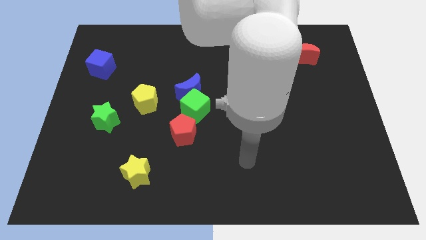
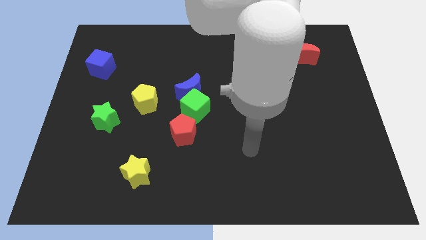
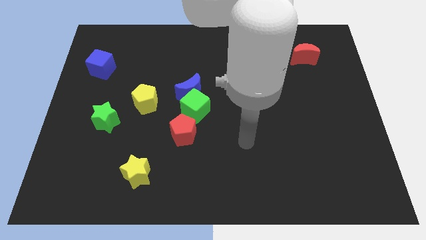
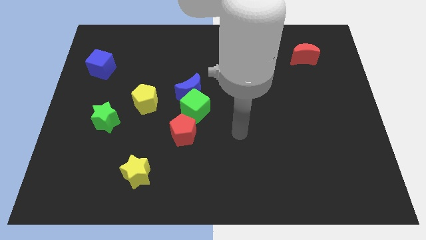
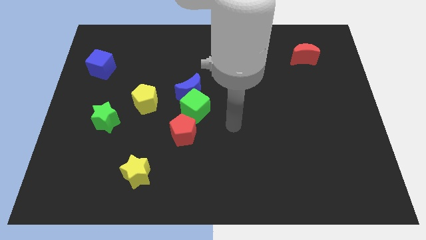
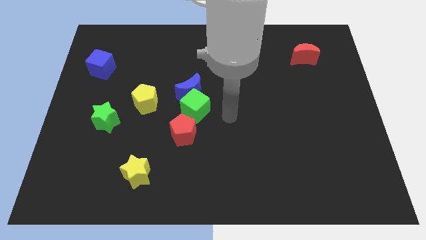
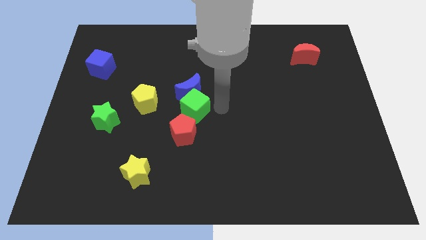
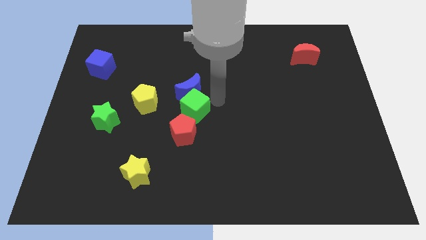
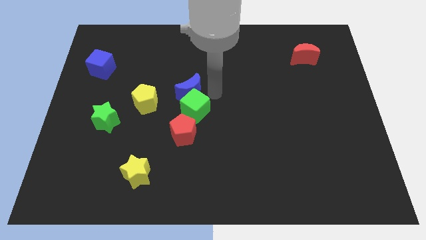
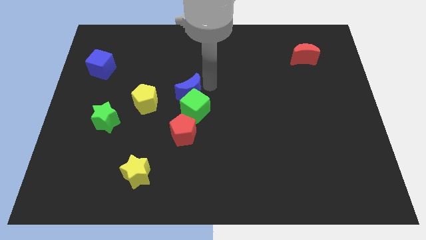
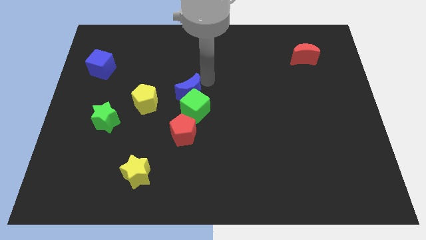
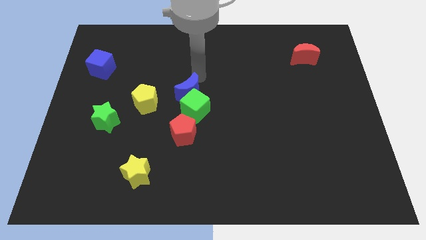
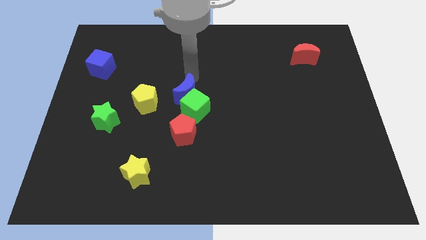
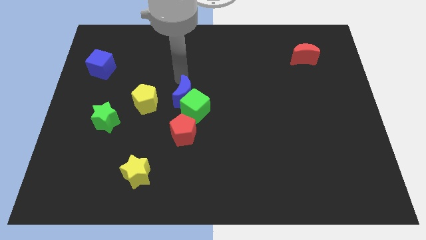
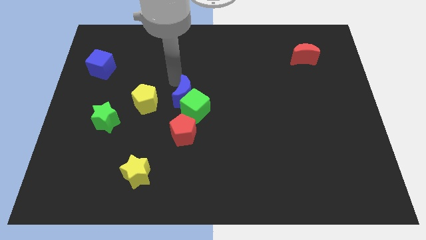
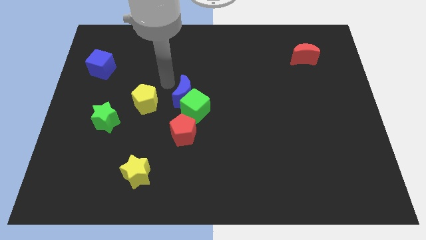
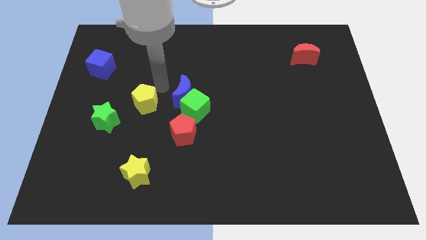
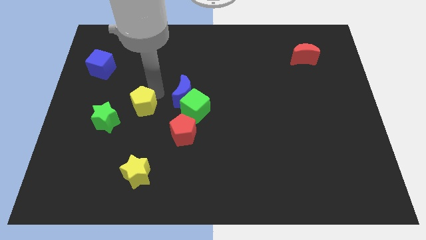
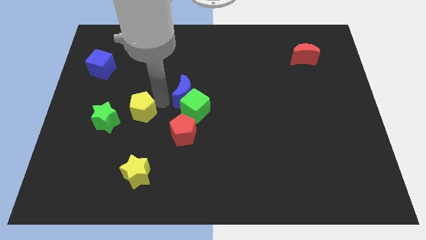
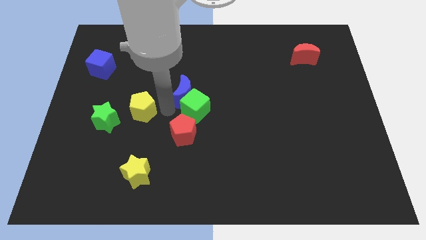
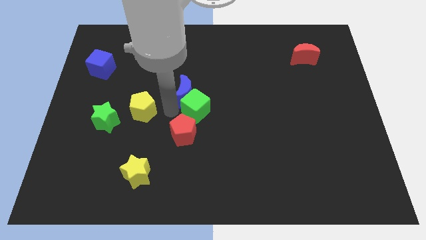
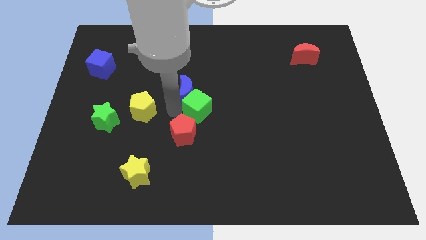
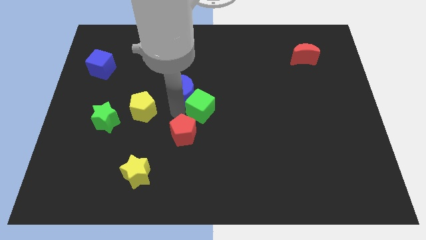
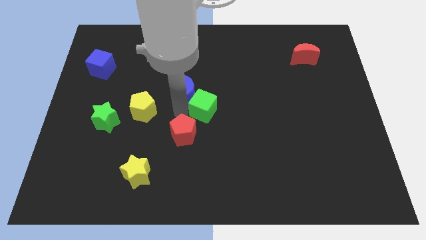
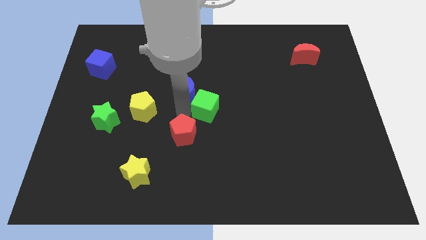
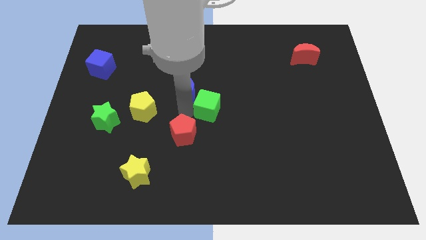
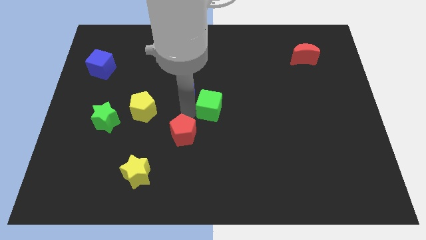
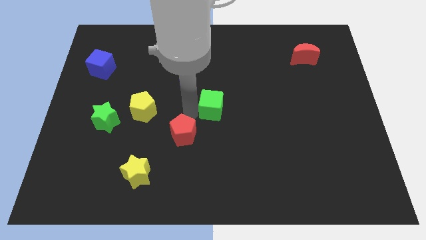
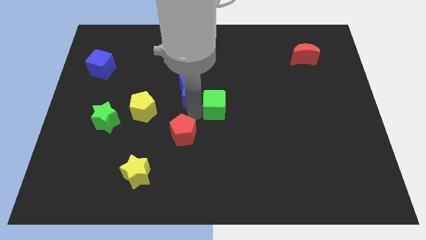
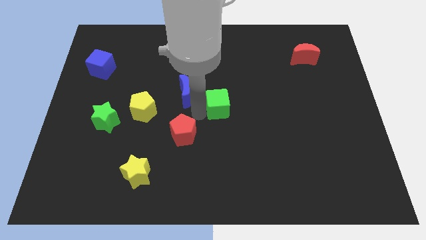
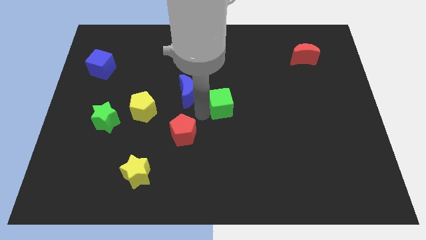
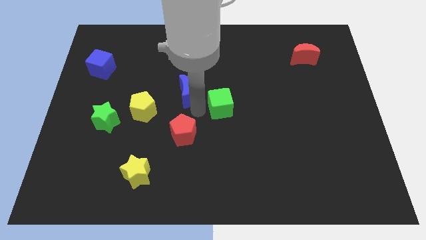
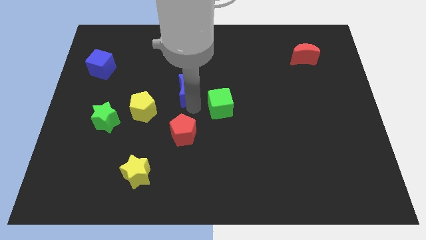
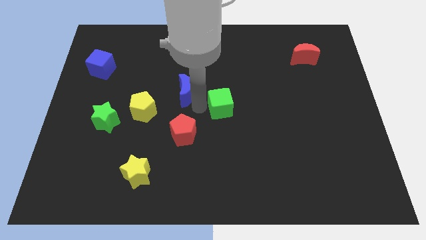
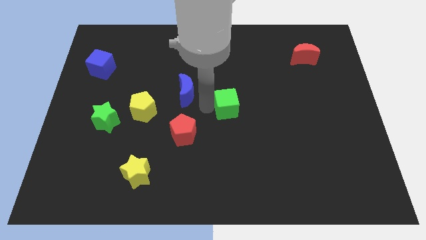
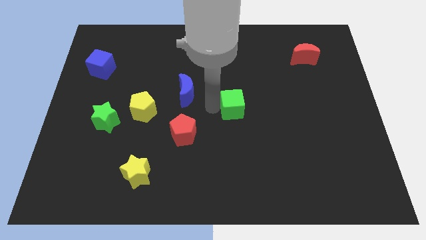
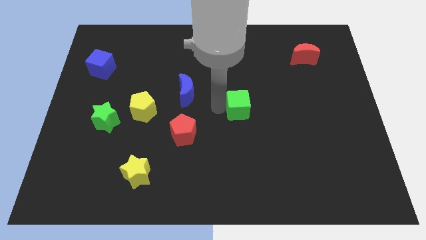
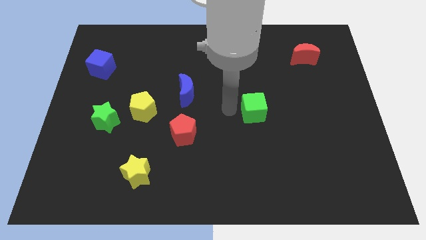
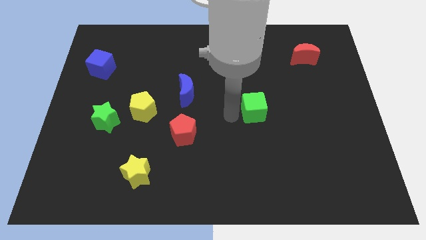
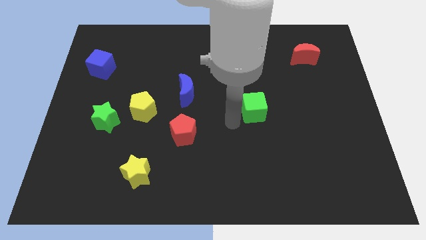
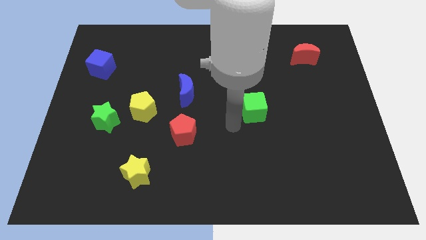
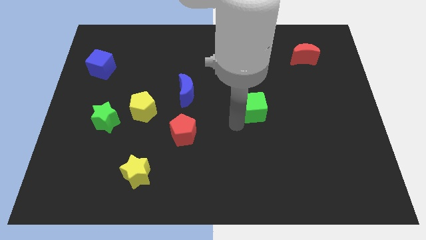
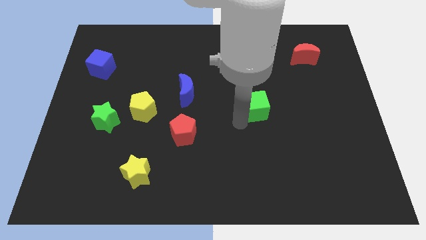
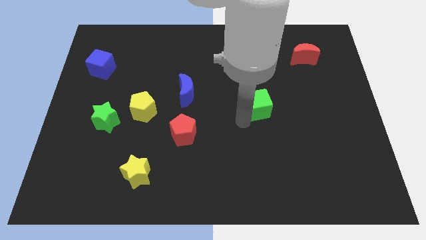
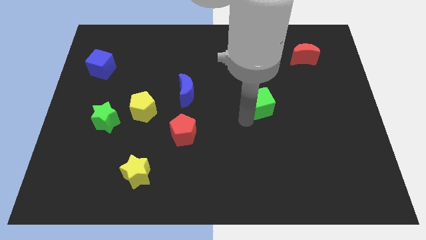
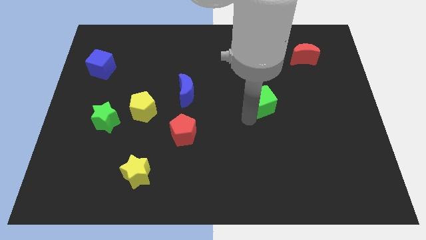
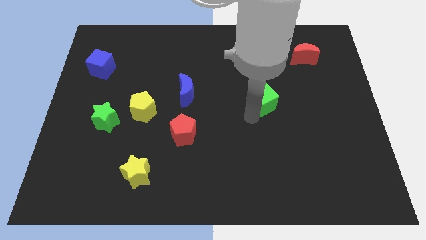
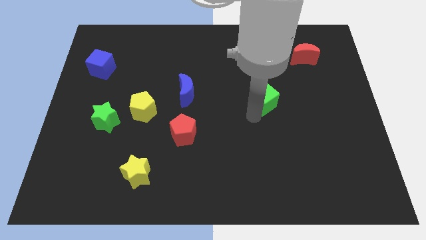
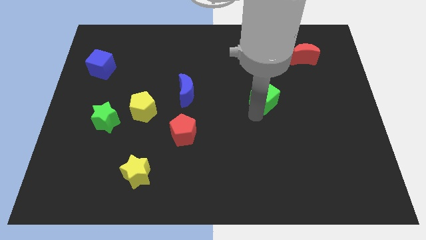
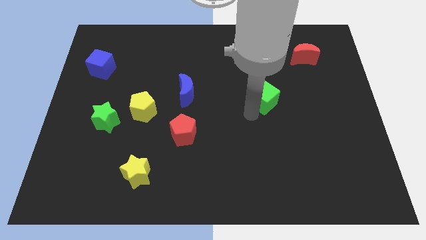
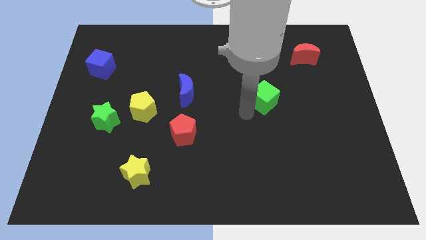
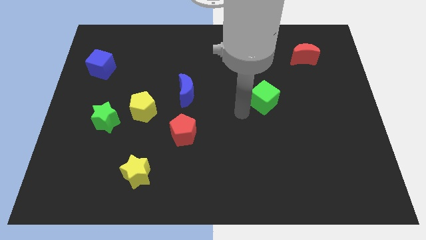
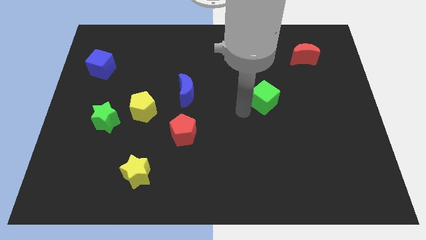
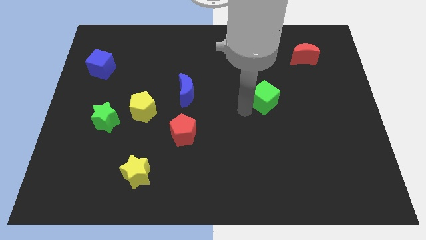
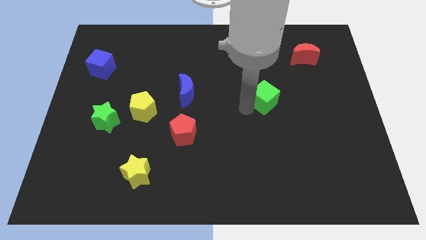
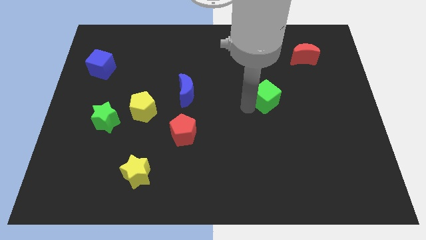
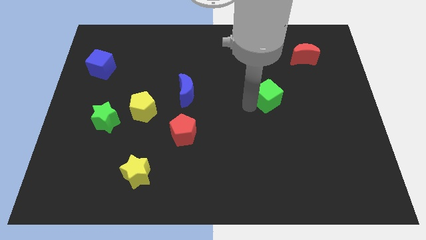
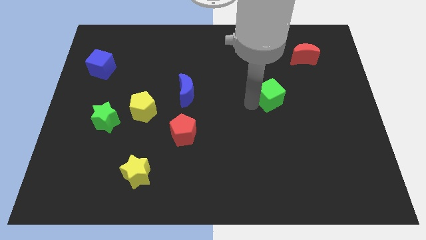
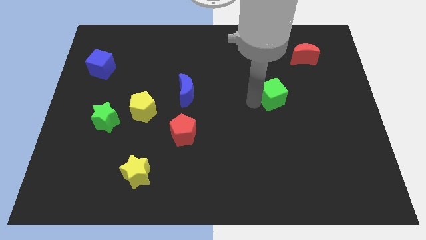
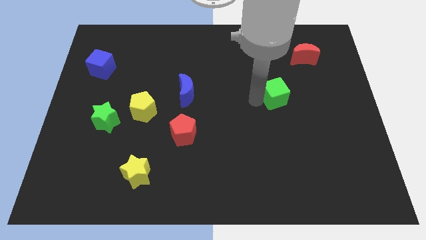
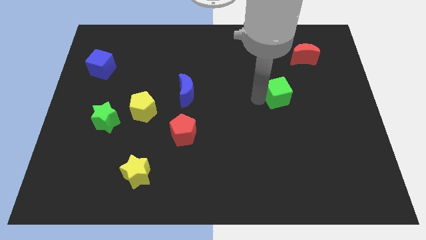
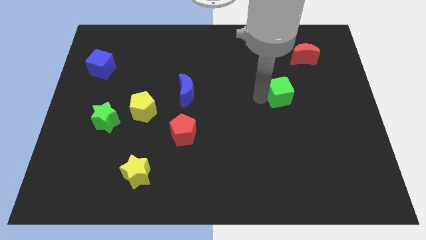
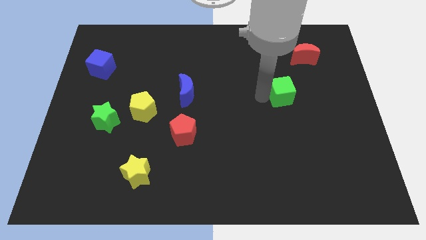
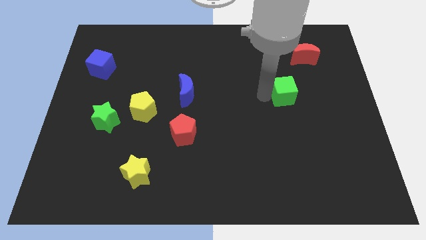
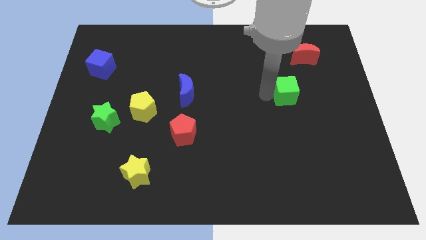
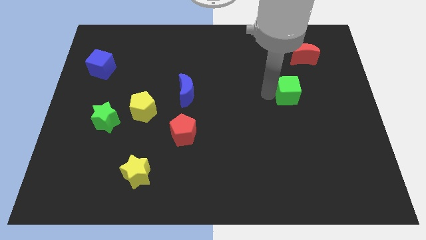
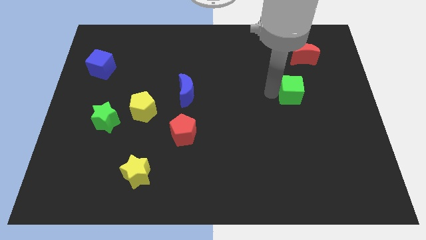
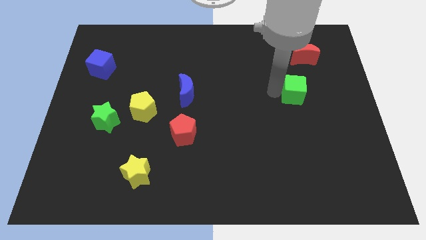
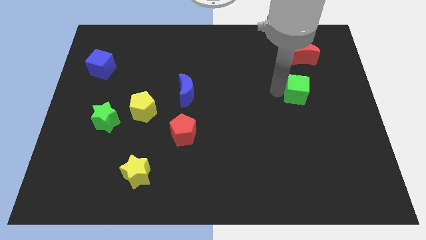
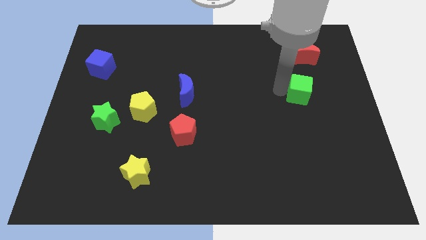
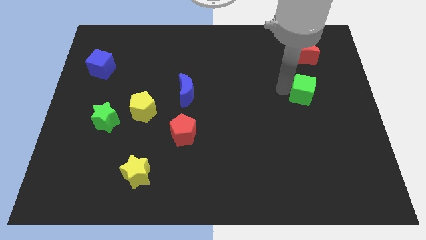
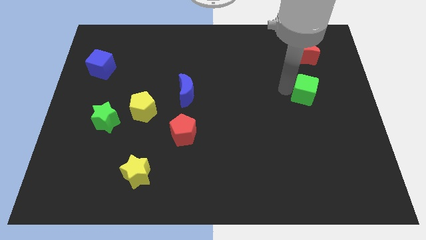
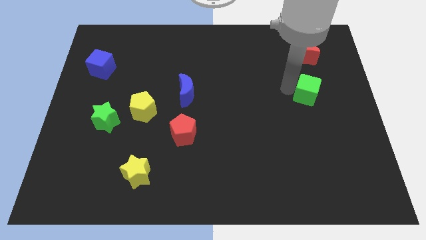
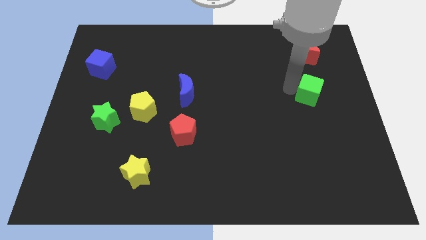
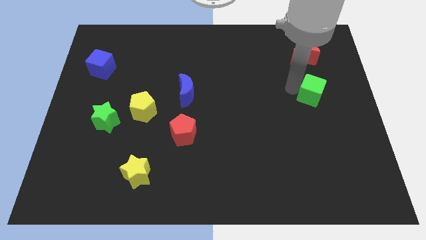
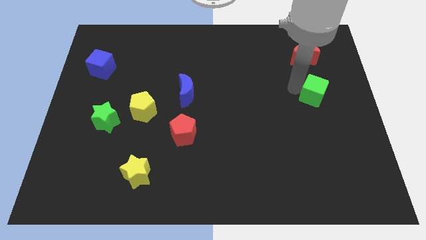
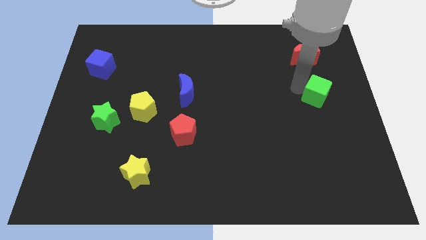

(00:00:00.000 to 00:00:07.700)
push the green cube to the right side
